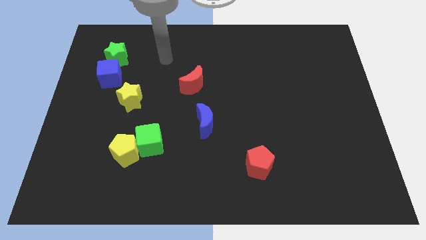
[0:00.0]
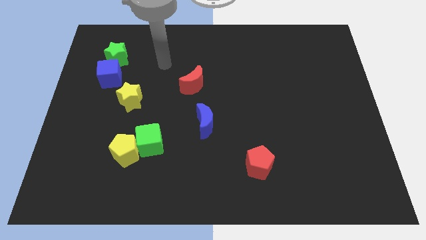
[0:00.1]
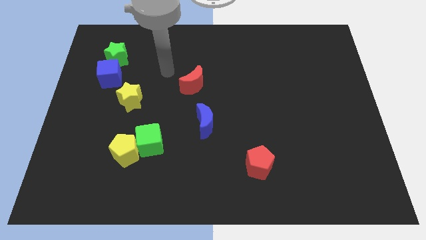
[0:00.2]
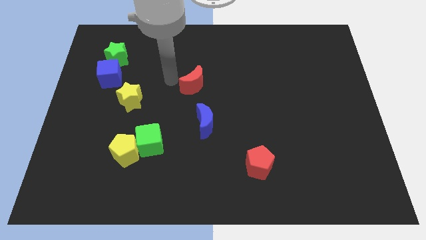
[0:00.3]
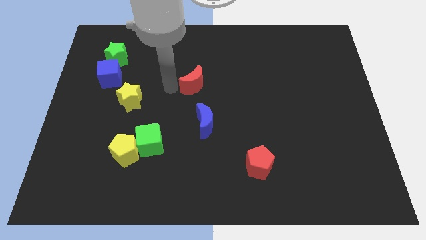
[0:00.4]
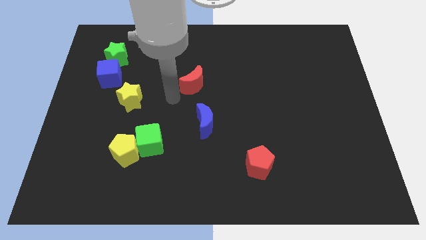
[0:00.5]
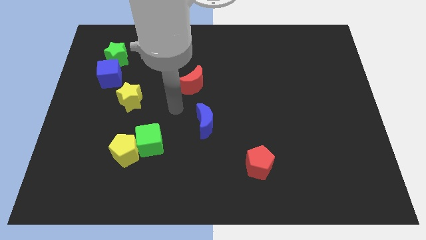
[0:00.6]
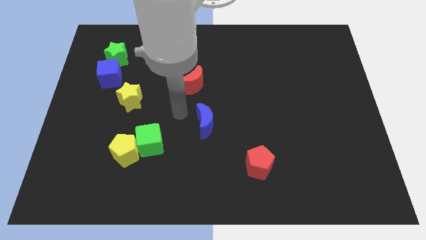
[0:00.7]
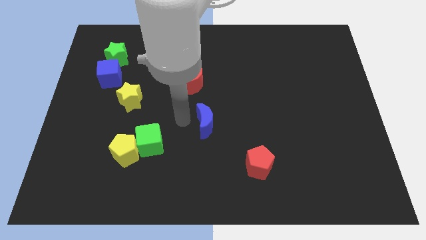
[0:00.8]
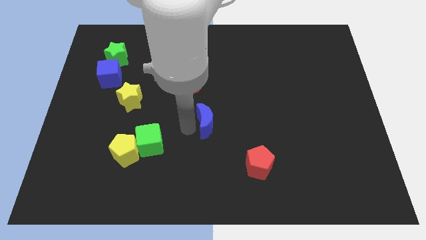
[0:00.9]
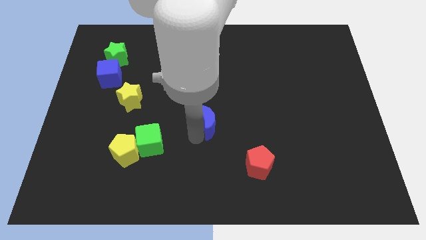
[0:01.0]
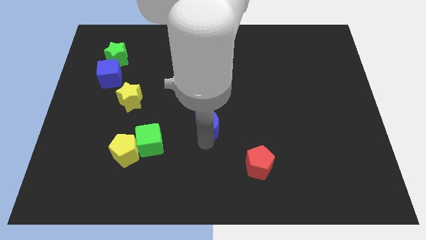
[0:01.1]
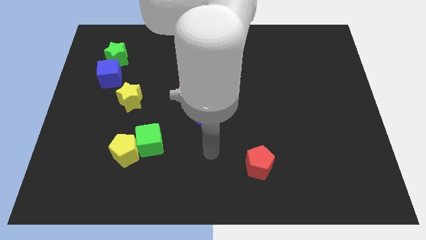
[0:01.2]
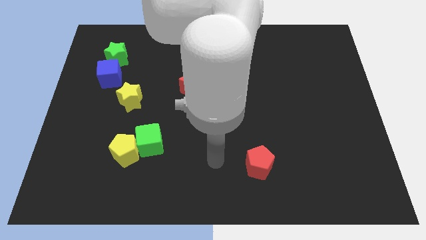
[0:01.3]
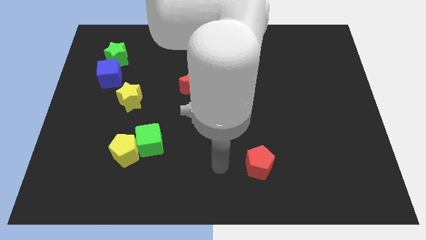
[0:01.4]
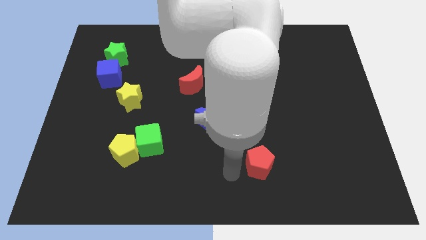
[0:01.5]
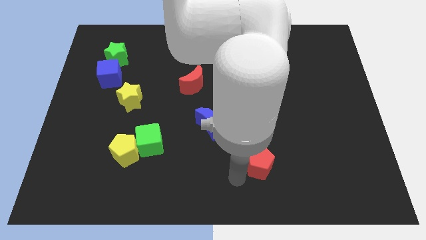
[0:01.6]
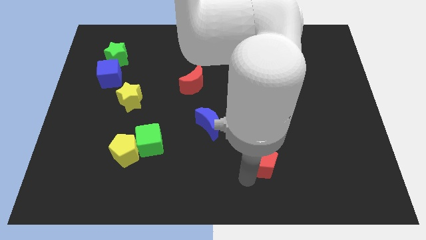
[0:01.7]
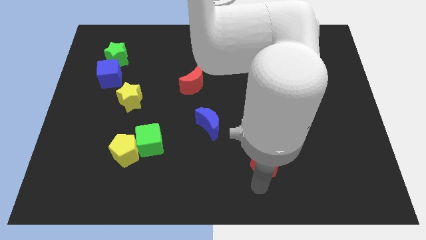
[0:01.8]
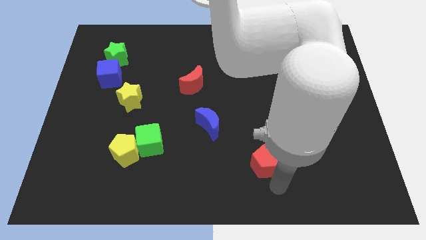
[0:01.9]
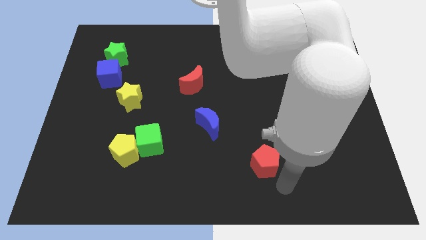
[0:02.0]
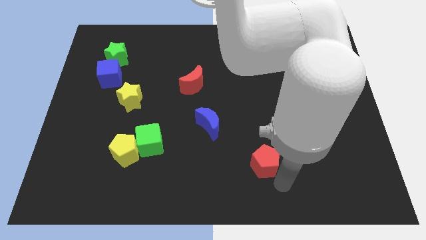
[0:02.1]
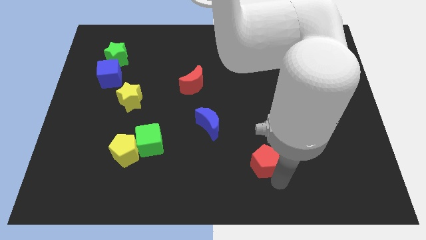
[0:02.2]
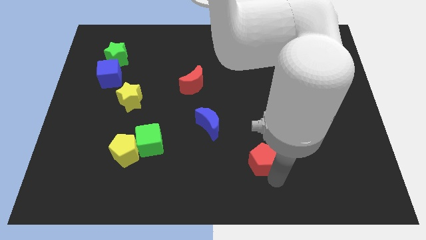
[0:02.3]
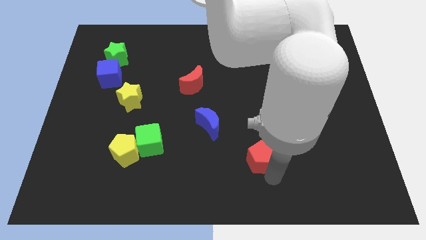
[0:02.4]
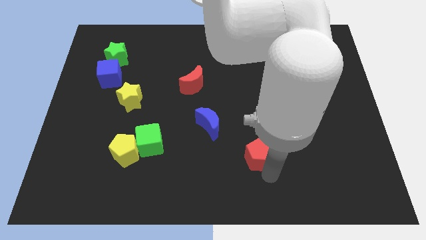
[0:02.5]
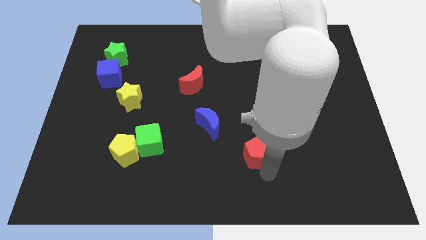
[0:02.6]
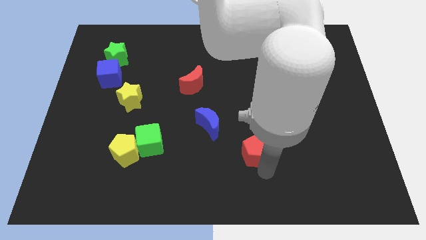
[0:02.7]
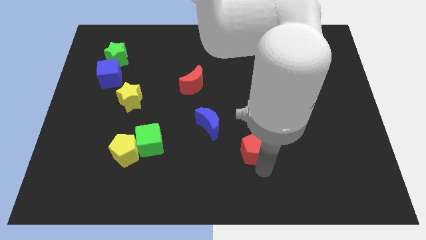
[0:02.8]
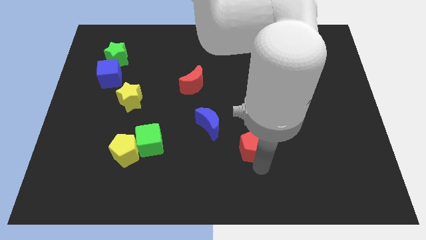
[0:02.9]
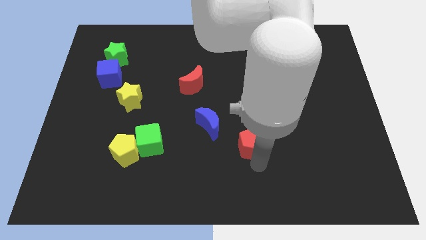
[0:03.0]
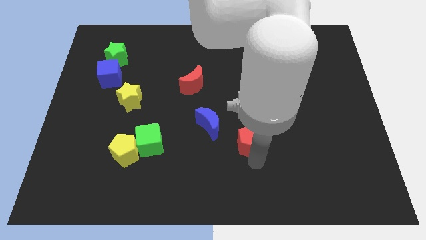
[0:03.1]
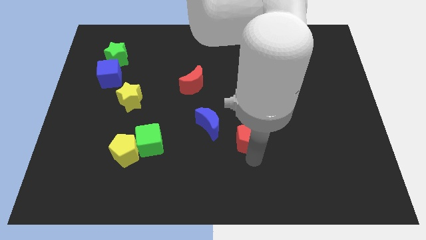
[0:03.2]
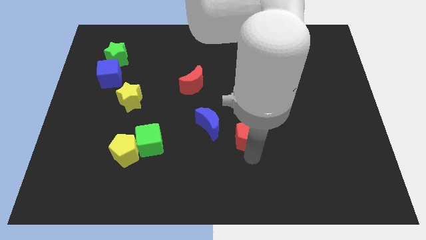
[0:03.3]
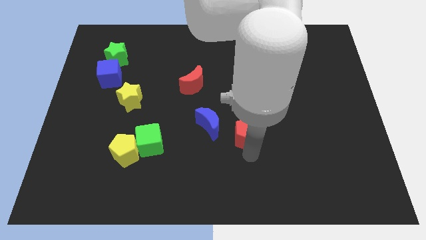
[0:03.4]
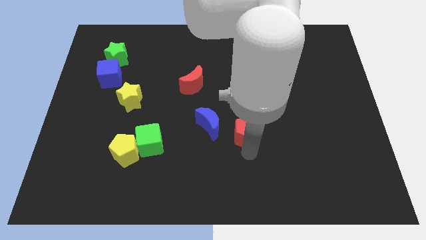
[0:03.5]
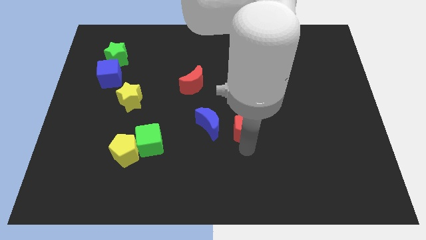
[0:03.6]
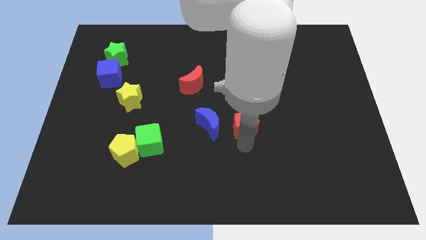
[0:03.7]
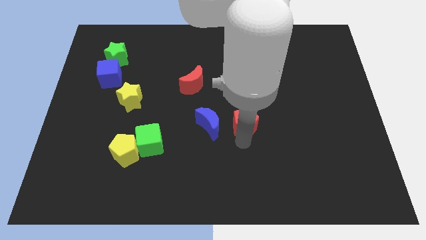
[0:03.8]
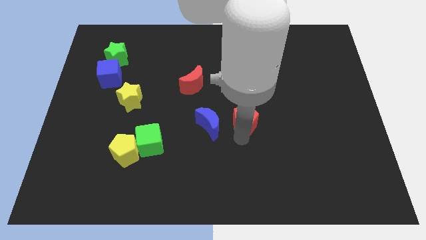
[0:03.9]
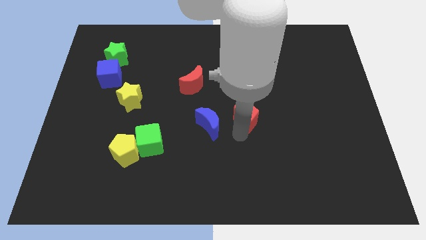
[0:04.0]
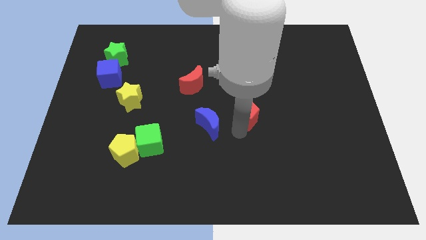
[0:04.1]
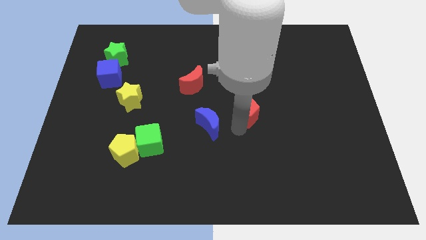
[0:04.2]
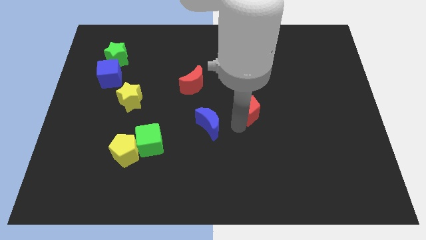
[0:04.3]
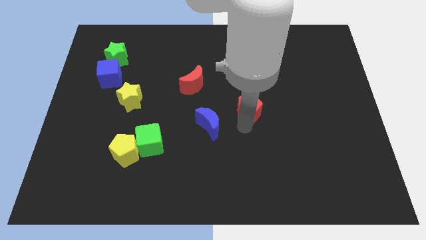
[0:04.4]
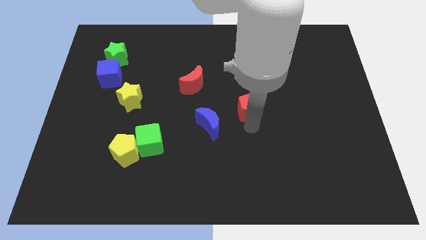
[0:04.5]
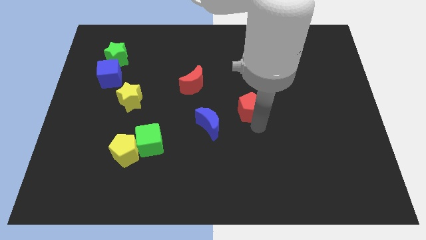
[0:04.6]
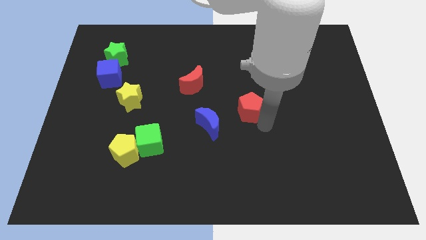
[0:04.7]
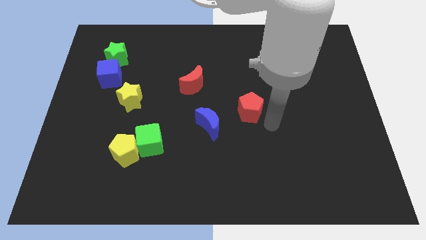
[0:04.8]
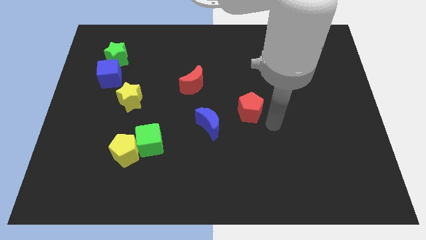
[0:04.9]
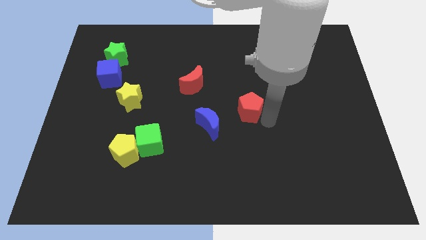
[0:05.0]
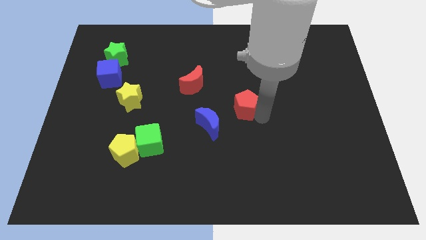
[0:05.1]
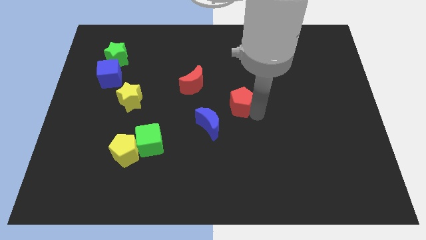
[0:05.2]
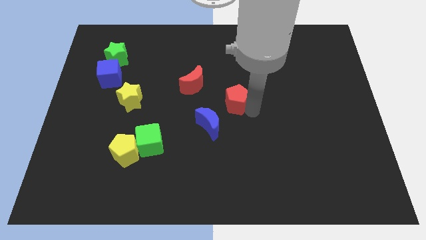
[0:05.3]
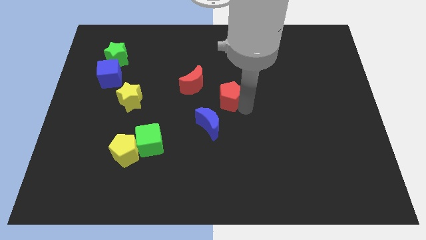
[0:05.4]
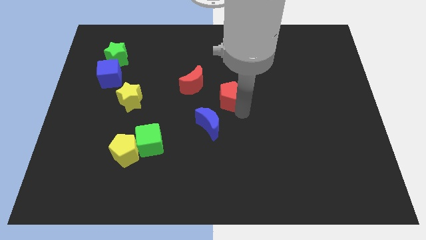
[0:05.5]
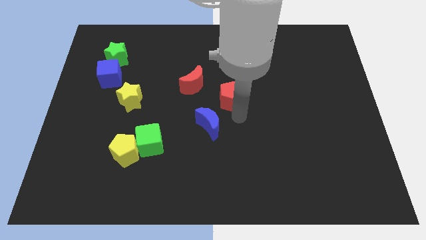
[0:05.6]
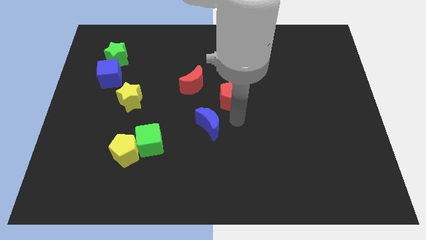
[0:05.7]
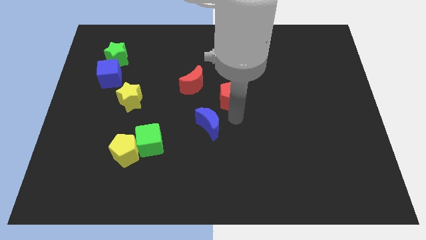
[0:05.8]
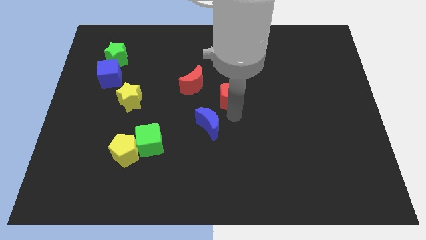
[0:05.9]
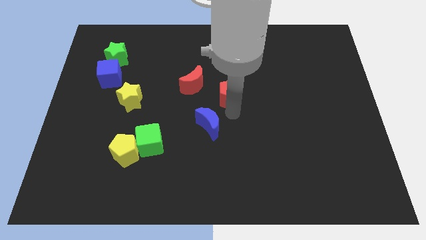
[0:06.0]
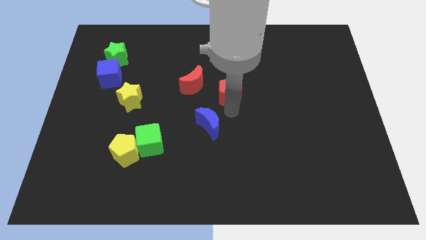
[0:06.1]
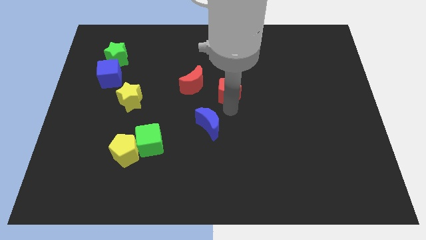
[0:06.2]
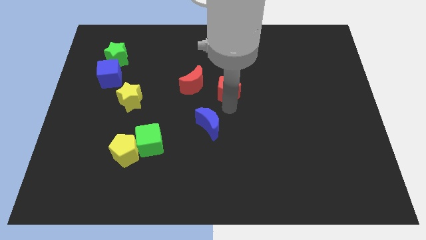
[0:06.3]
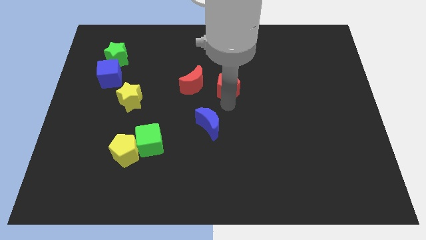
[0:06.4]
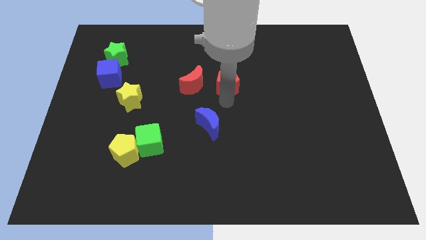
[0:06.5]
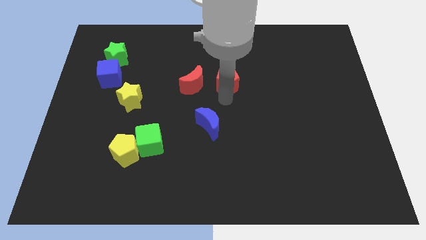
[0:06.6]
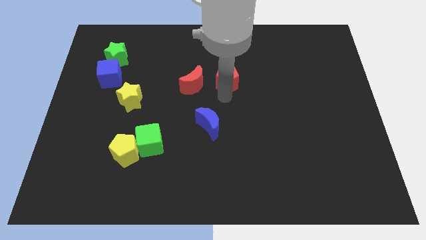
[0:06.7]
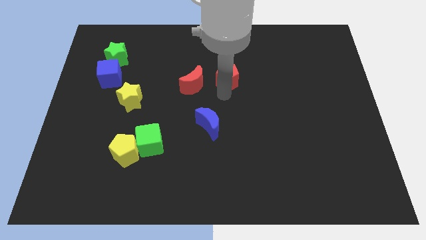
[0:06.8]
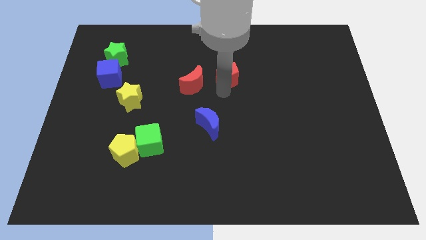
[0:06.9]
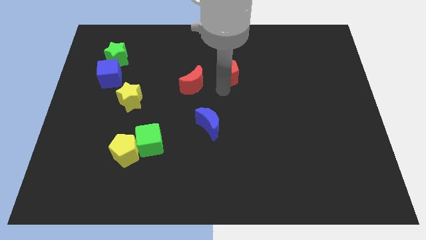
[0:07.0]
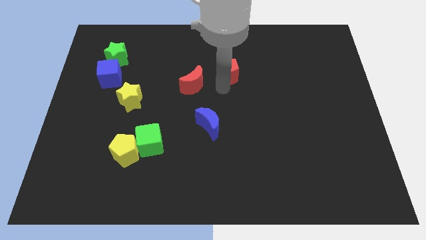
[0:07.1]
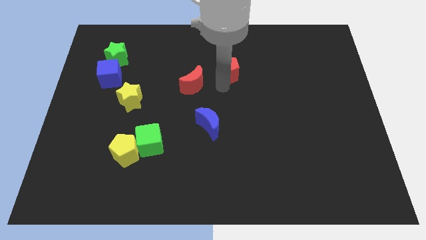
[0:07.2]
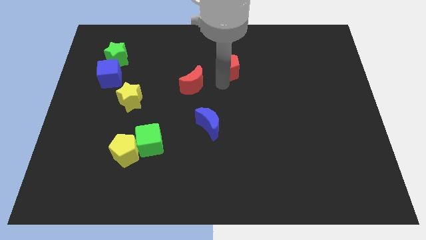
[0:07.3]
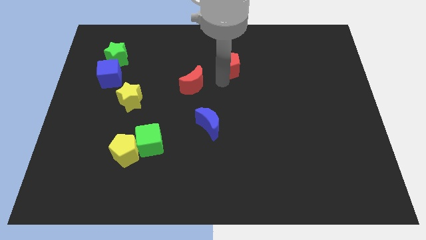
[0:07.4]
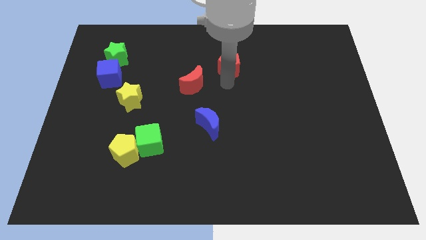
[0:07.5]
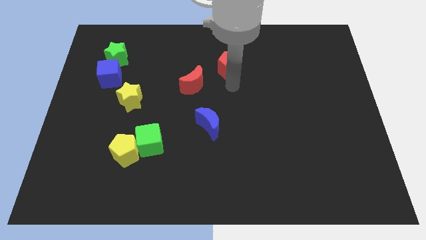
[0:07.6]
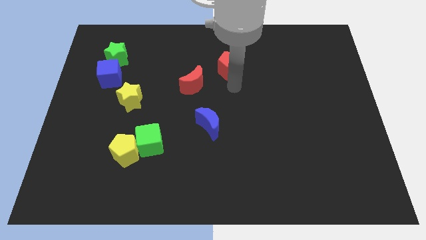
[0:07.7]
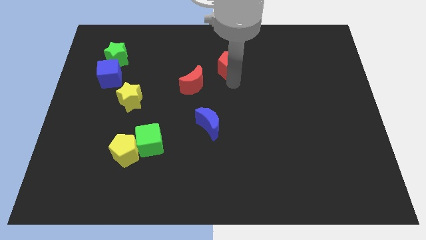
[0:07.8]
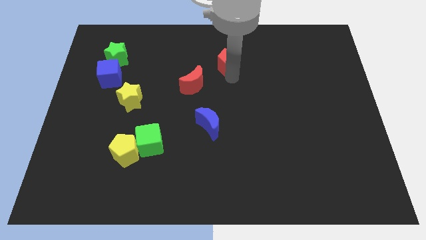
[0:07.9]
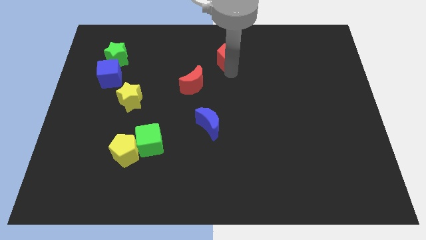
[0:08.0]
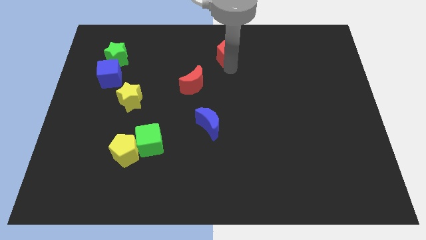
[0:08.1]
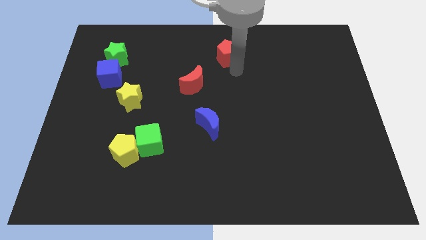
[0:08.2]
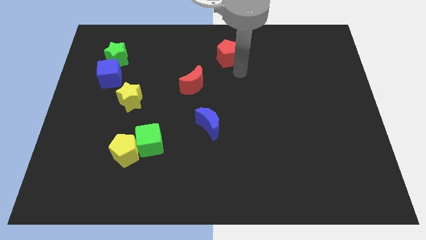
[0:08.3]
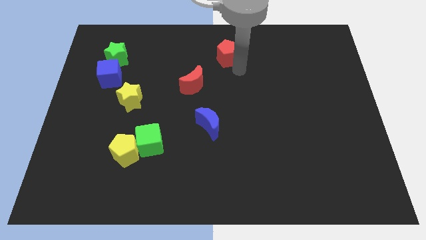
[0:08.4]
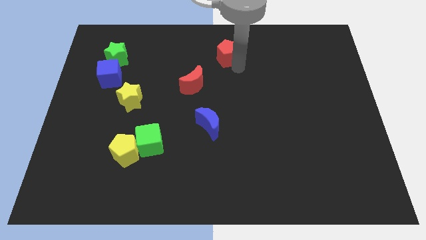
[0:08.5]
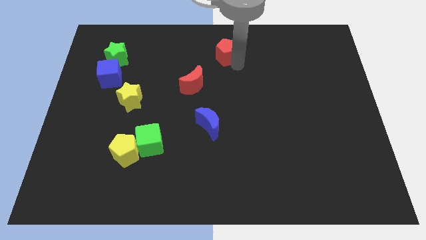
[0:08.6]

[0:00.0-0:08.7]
put the red pentagon to the towards your base
